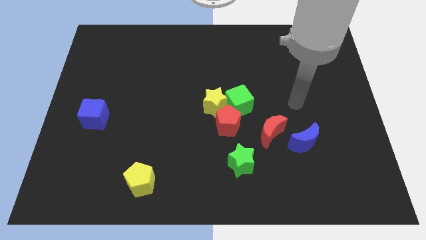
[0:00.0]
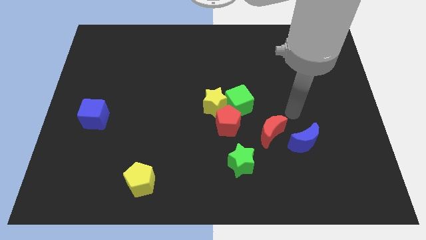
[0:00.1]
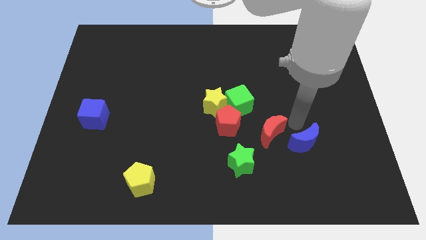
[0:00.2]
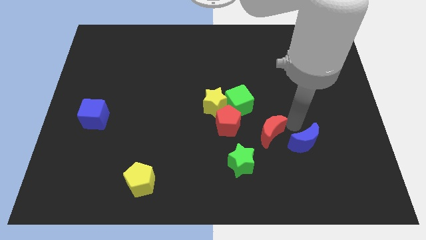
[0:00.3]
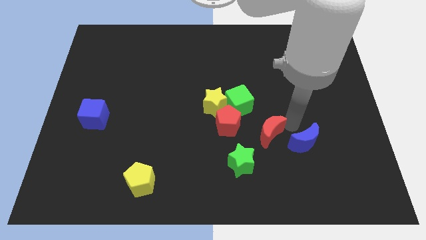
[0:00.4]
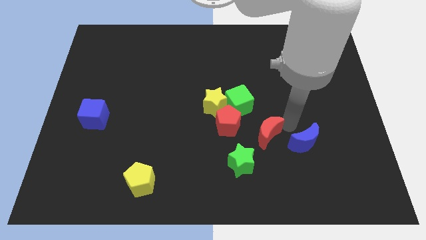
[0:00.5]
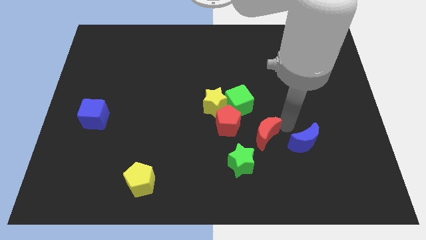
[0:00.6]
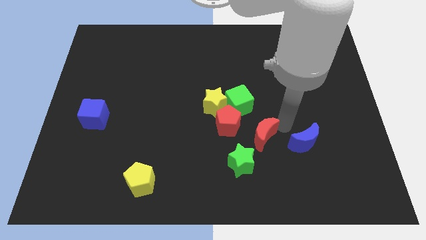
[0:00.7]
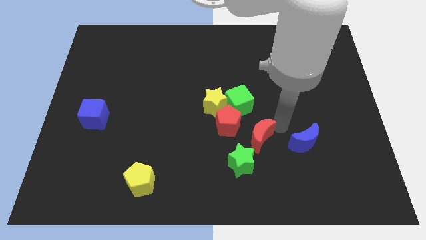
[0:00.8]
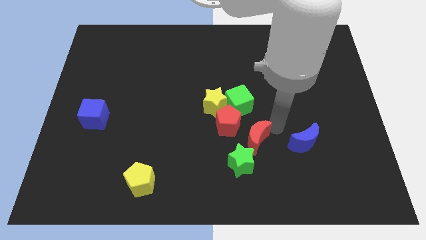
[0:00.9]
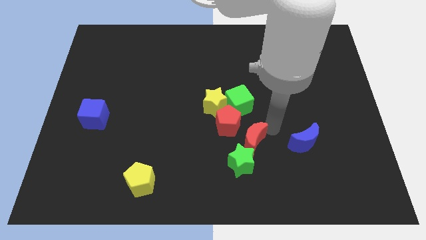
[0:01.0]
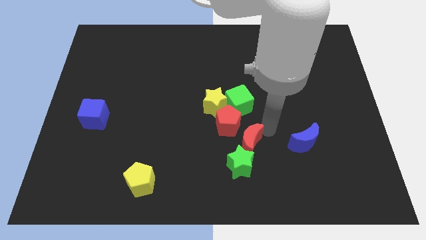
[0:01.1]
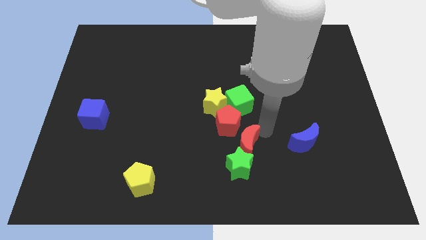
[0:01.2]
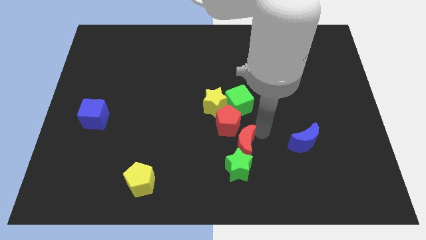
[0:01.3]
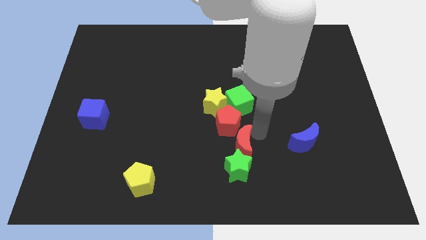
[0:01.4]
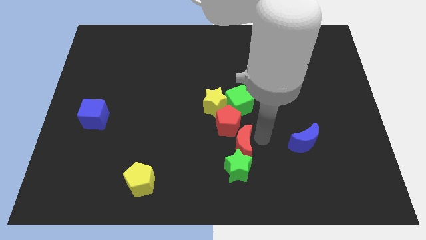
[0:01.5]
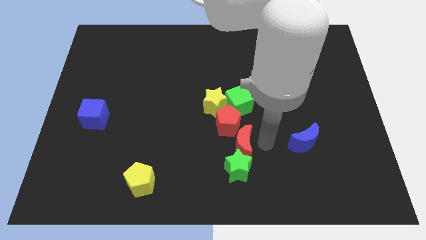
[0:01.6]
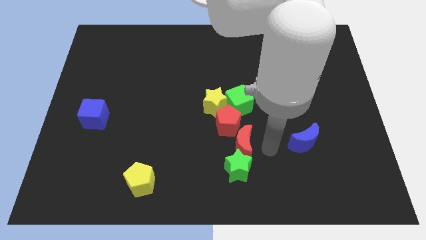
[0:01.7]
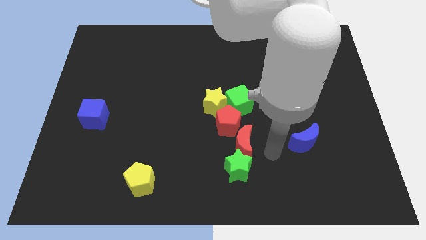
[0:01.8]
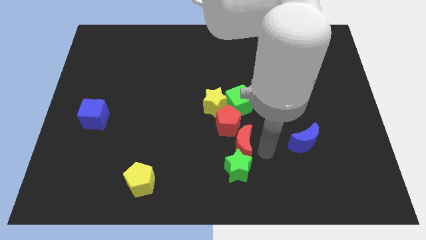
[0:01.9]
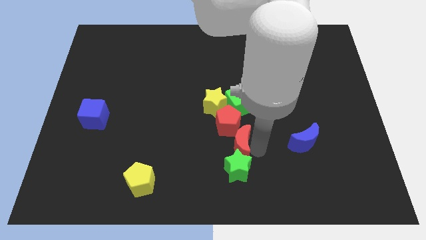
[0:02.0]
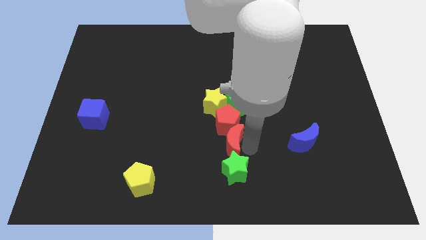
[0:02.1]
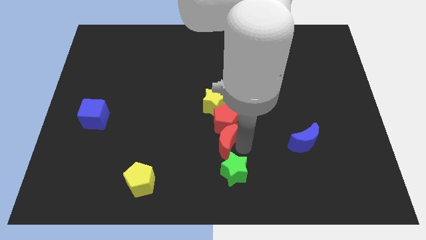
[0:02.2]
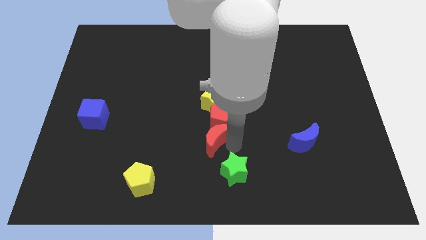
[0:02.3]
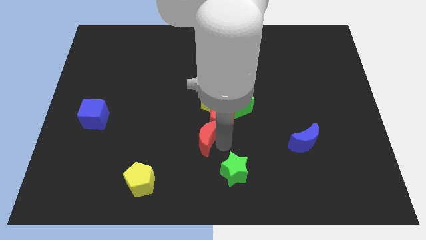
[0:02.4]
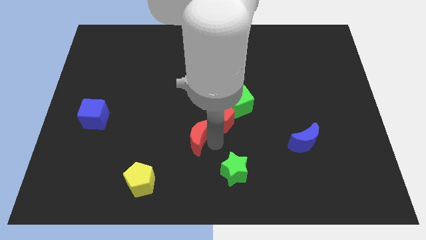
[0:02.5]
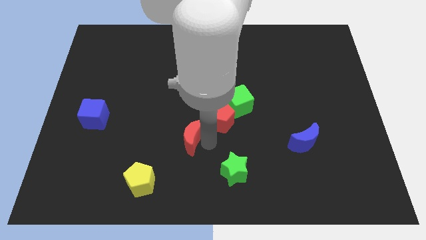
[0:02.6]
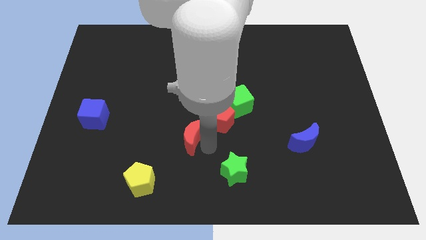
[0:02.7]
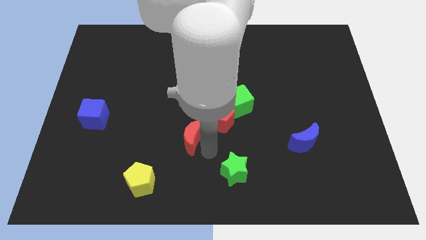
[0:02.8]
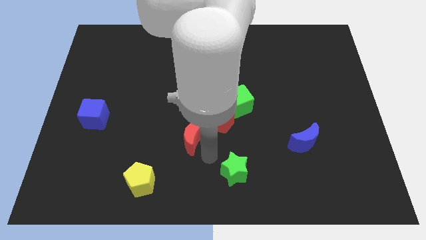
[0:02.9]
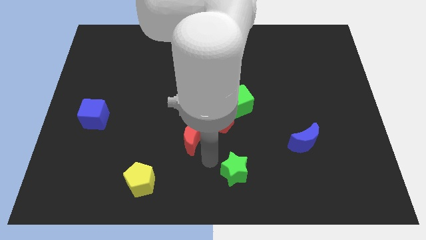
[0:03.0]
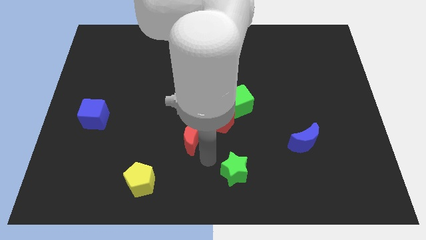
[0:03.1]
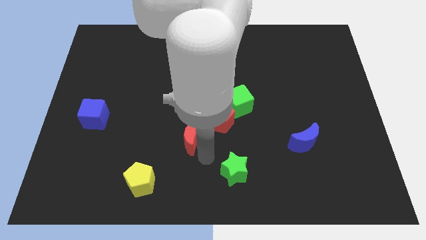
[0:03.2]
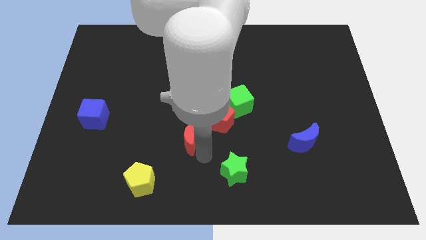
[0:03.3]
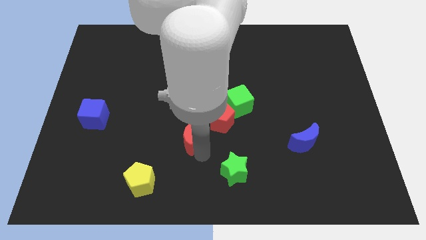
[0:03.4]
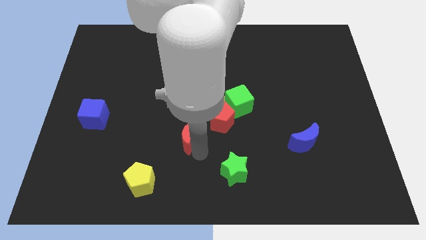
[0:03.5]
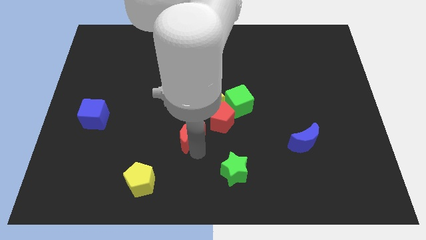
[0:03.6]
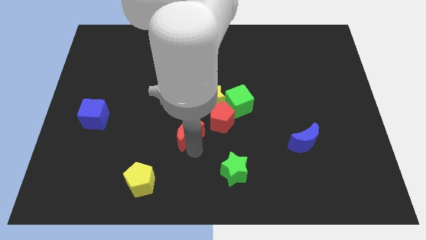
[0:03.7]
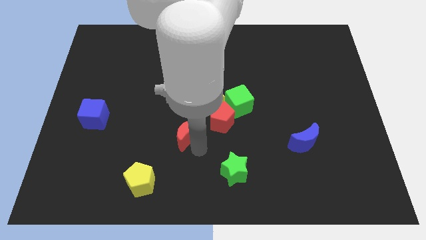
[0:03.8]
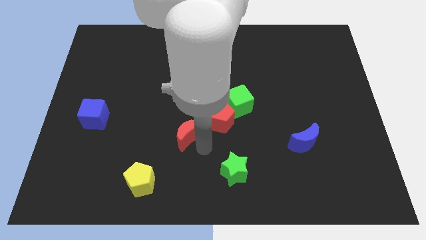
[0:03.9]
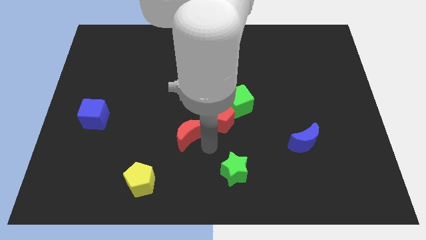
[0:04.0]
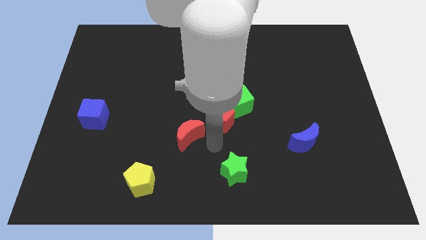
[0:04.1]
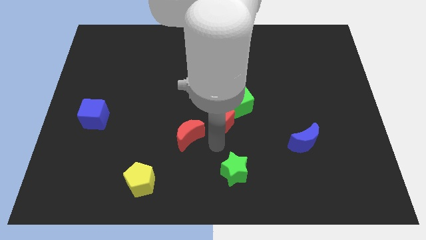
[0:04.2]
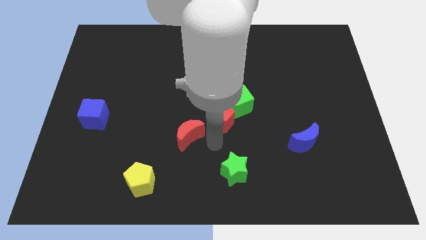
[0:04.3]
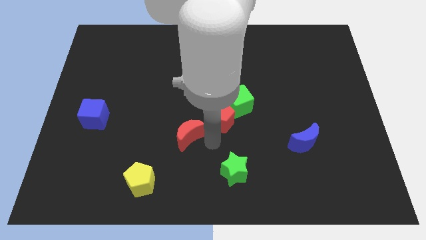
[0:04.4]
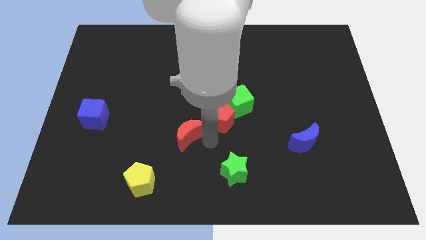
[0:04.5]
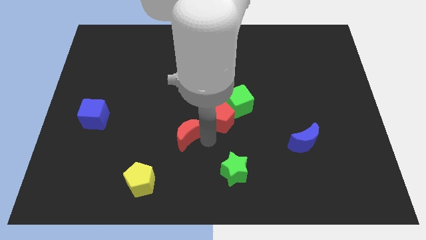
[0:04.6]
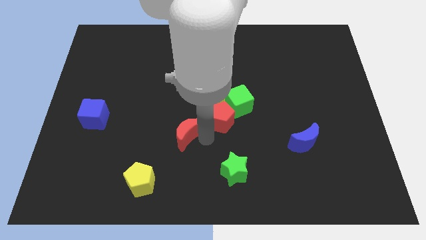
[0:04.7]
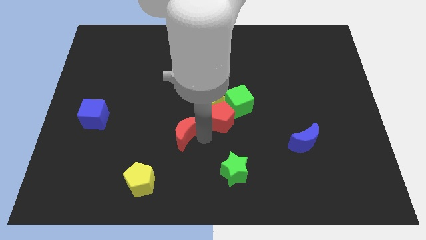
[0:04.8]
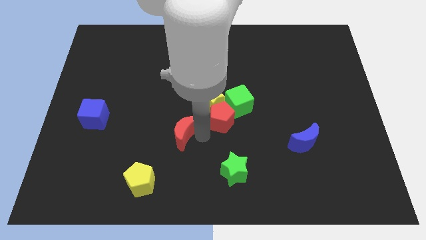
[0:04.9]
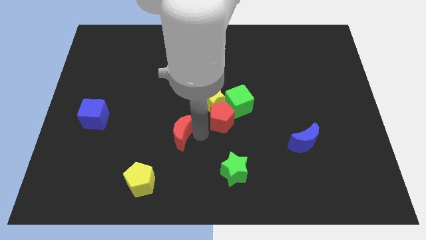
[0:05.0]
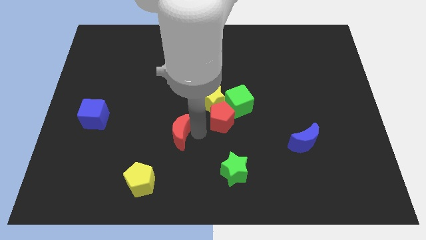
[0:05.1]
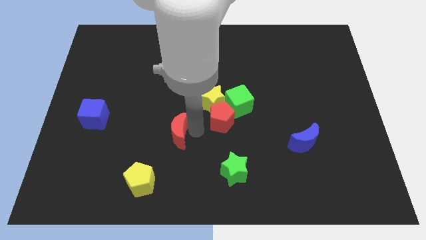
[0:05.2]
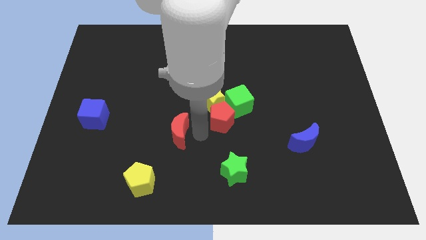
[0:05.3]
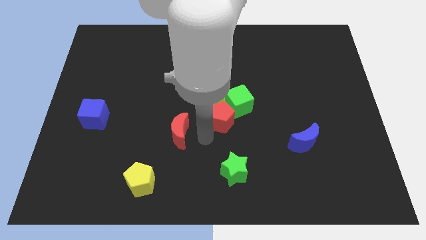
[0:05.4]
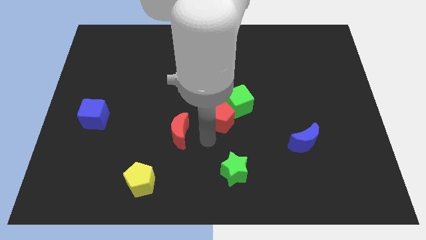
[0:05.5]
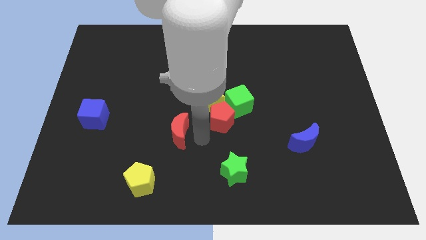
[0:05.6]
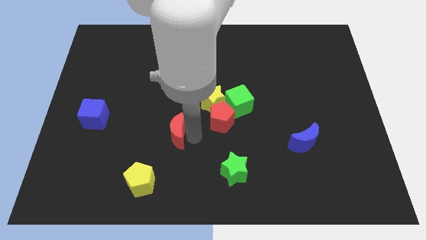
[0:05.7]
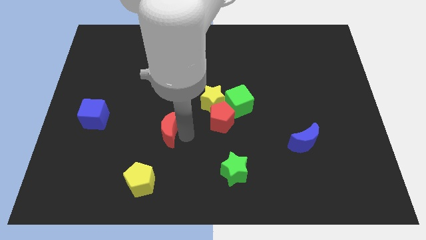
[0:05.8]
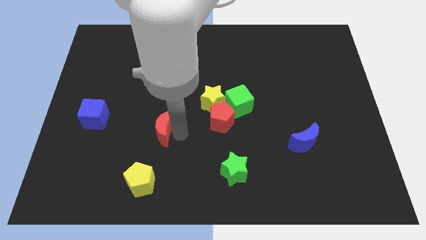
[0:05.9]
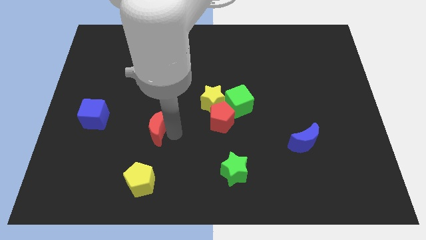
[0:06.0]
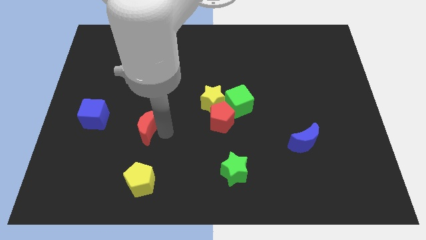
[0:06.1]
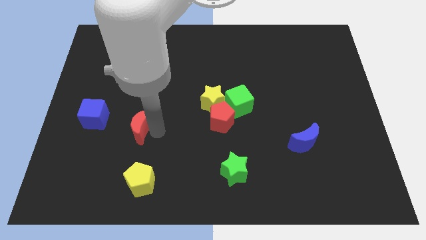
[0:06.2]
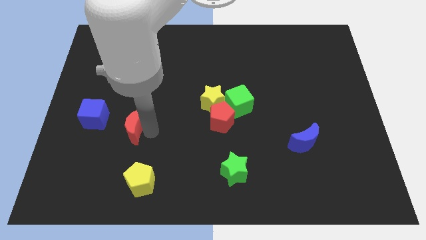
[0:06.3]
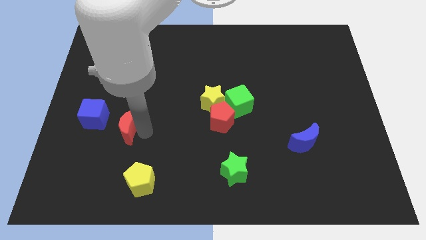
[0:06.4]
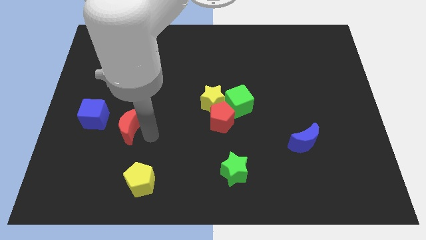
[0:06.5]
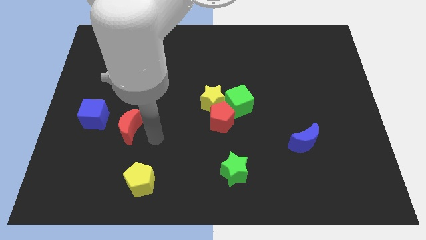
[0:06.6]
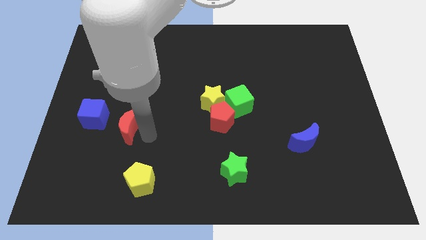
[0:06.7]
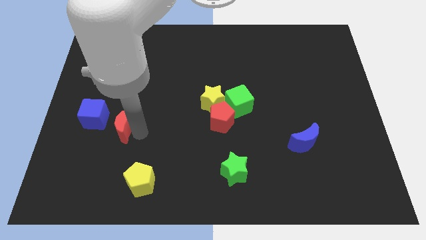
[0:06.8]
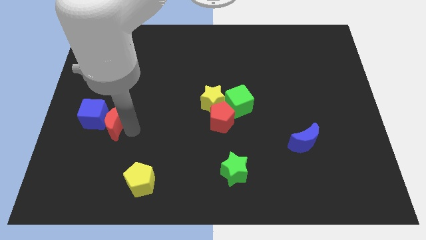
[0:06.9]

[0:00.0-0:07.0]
put the red moon towards the blue cube
